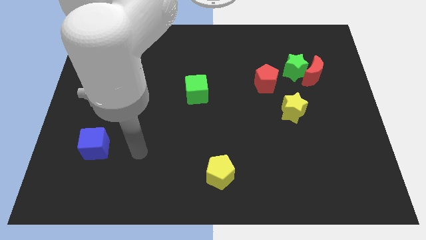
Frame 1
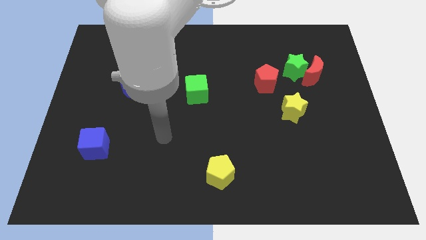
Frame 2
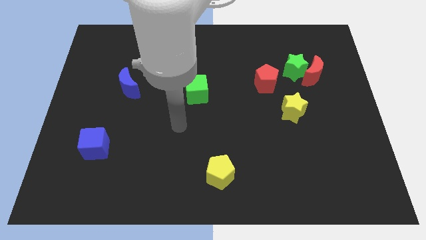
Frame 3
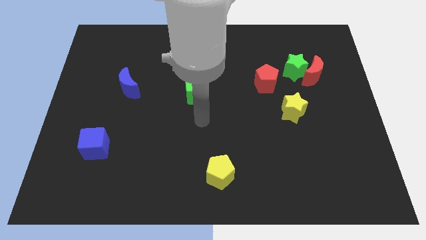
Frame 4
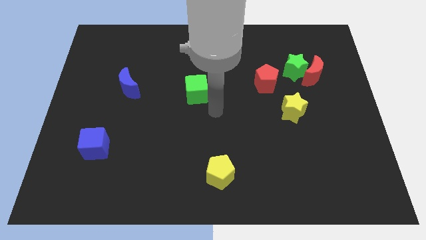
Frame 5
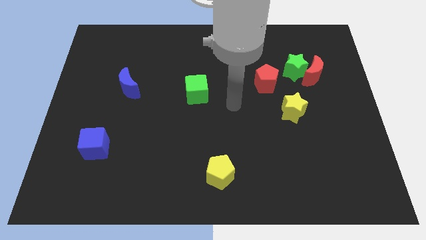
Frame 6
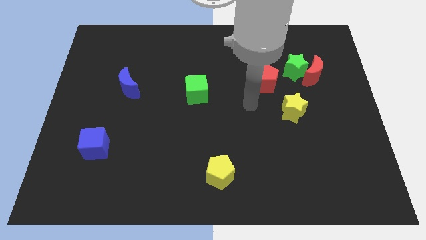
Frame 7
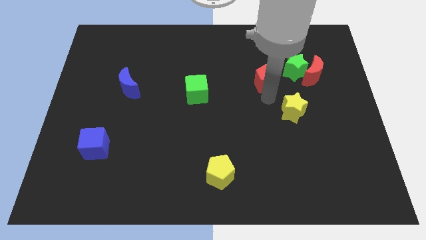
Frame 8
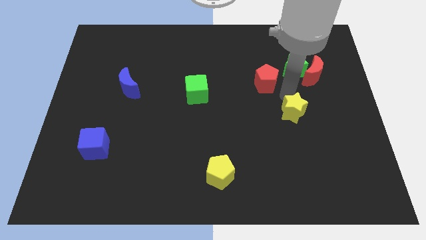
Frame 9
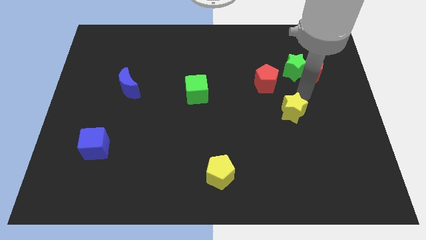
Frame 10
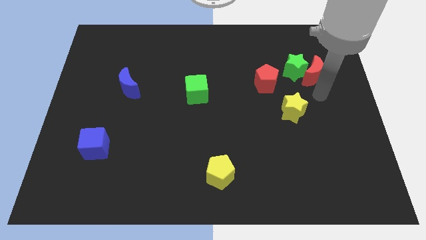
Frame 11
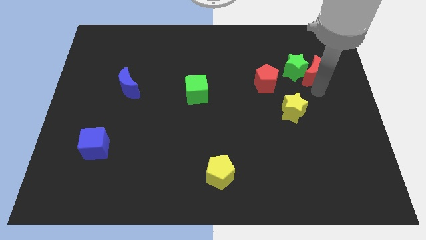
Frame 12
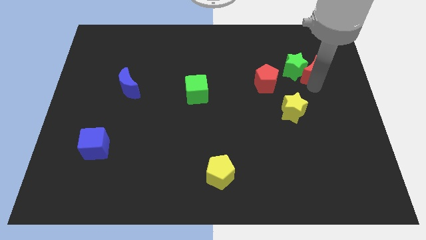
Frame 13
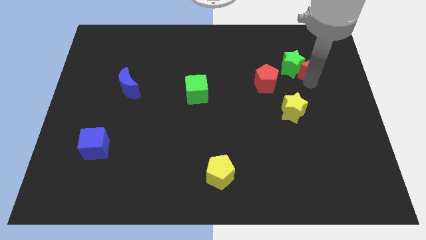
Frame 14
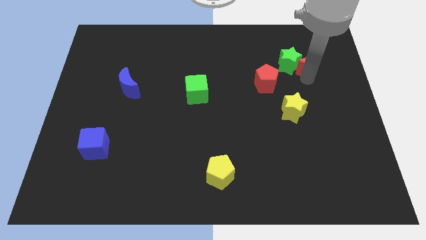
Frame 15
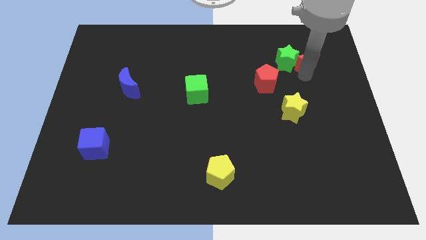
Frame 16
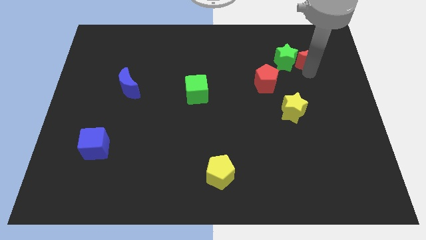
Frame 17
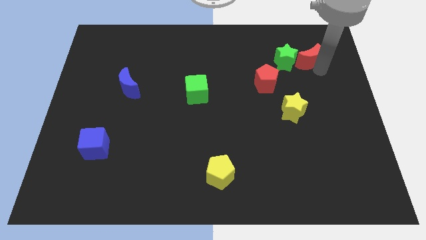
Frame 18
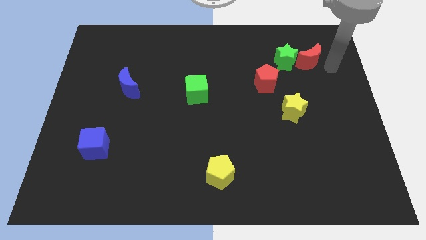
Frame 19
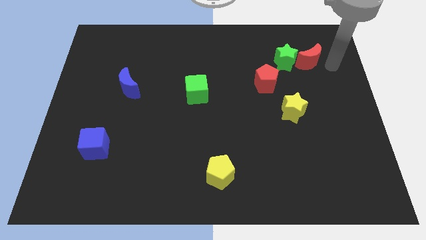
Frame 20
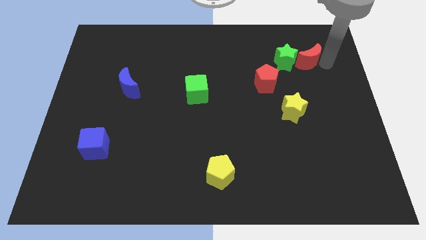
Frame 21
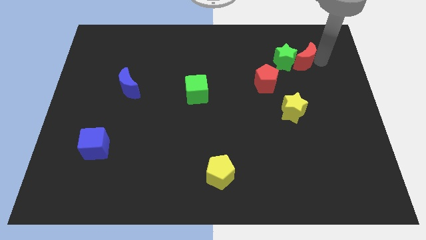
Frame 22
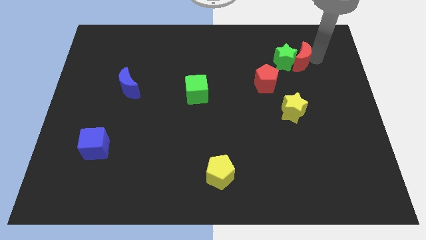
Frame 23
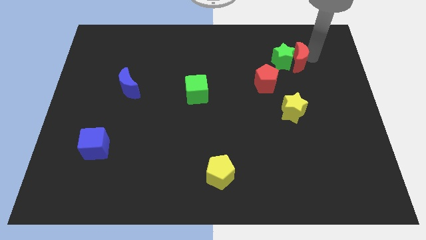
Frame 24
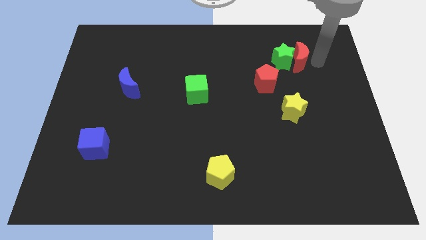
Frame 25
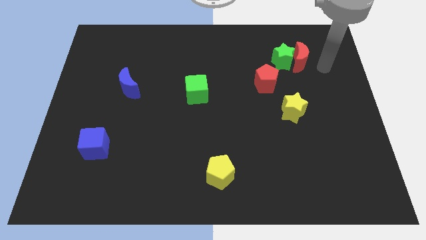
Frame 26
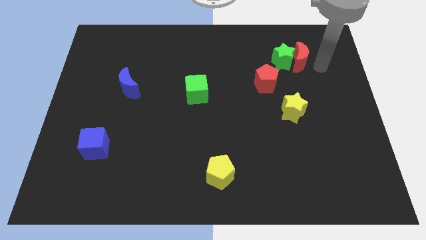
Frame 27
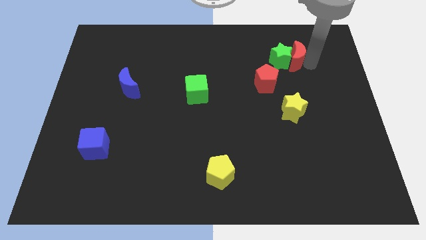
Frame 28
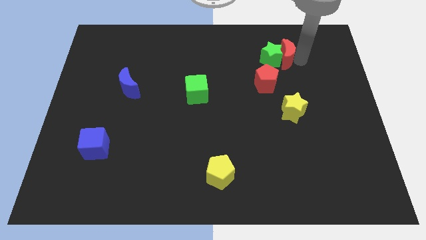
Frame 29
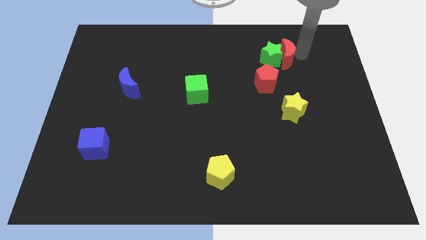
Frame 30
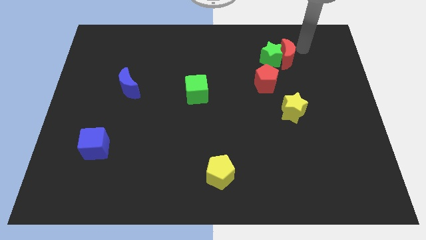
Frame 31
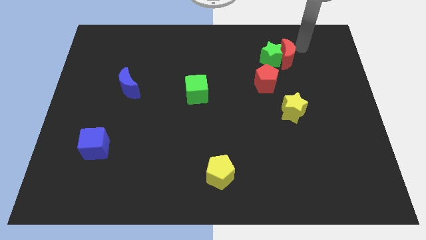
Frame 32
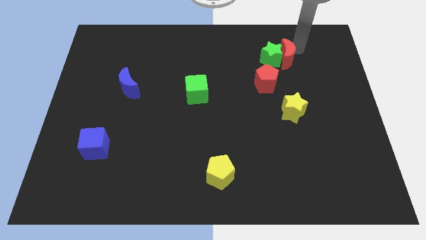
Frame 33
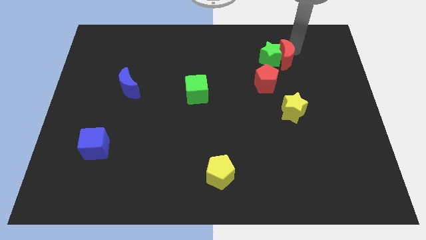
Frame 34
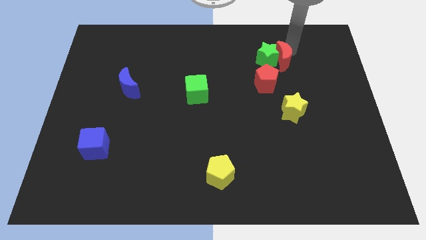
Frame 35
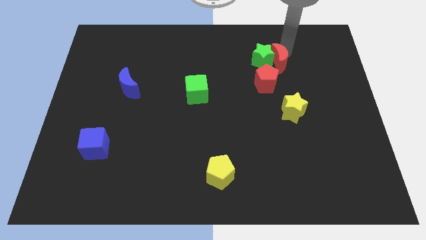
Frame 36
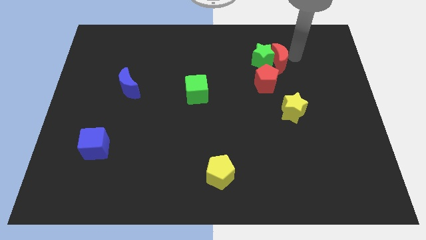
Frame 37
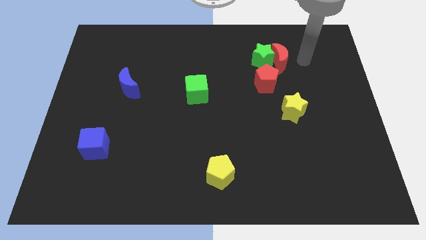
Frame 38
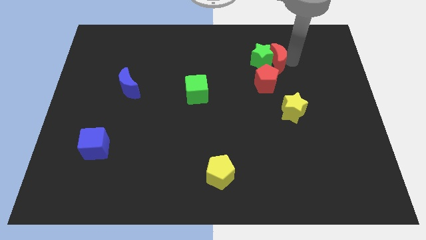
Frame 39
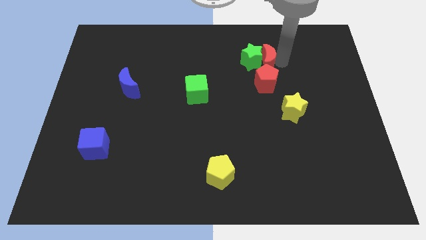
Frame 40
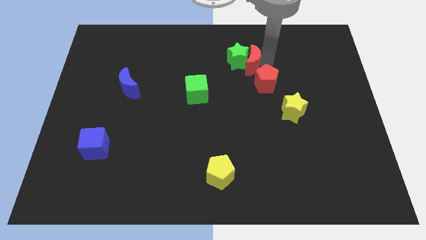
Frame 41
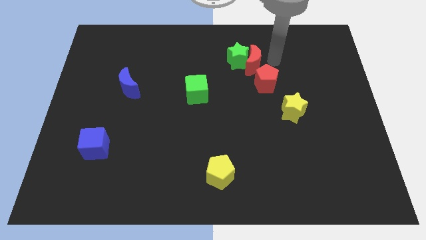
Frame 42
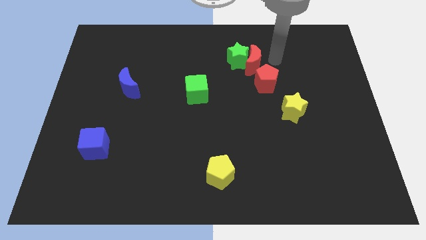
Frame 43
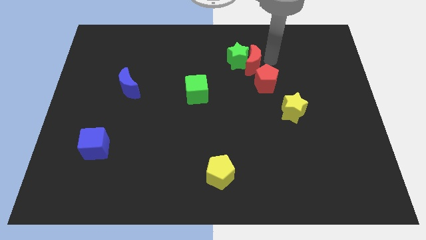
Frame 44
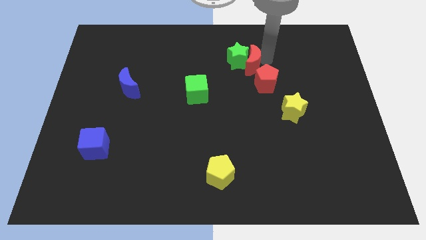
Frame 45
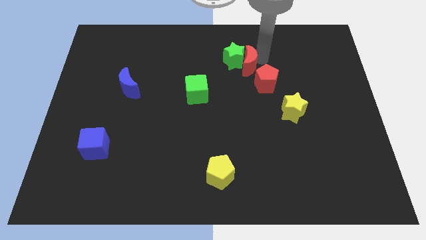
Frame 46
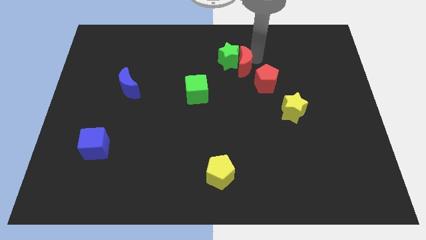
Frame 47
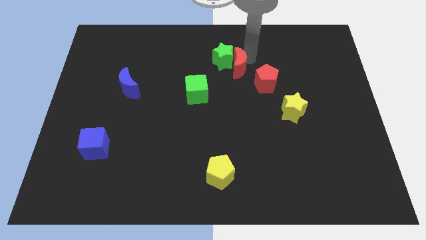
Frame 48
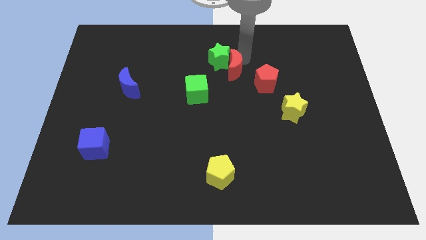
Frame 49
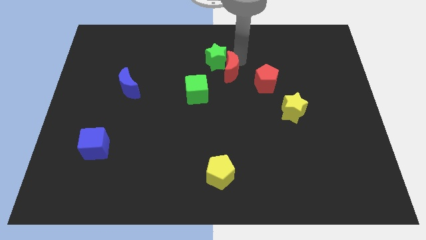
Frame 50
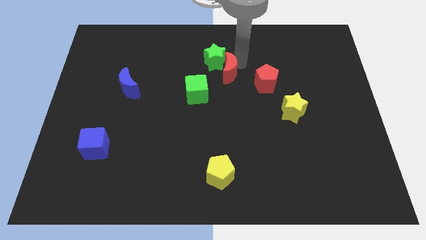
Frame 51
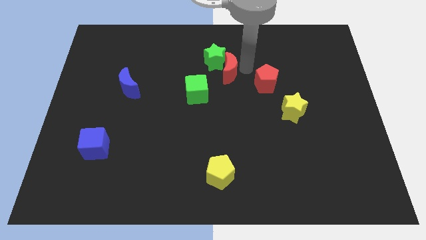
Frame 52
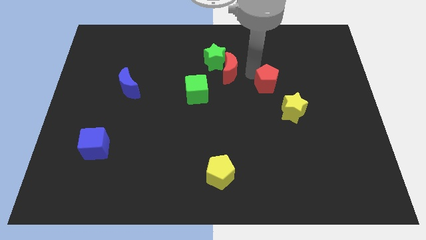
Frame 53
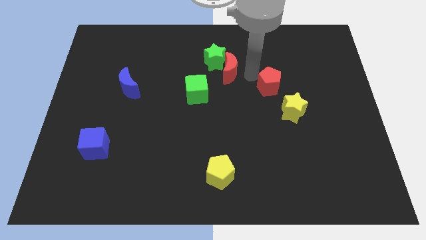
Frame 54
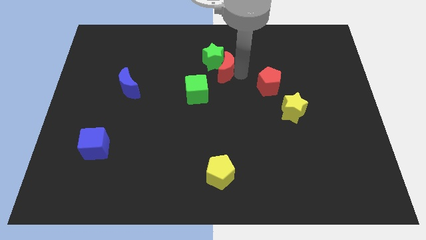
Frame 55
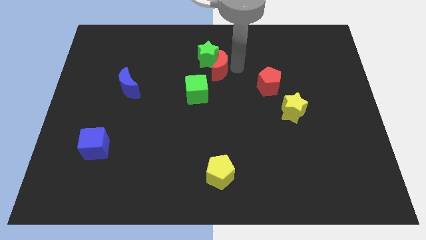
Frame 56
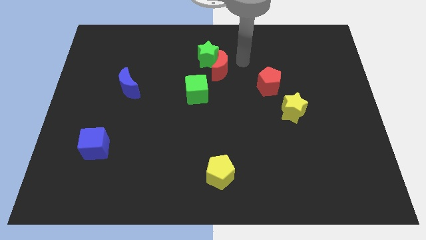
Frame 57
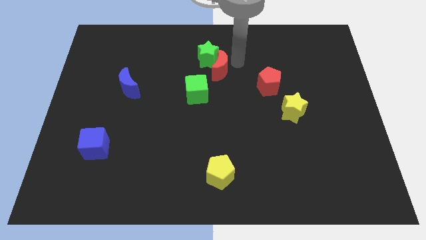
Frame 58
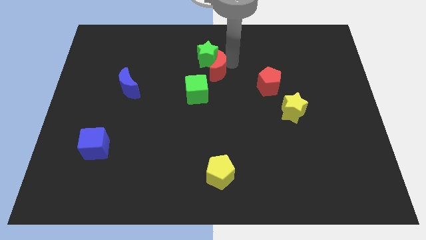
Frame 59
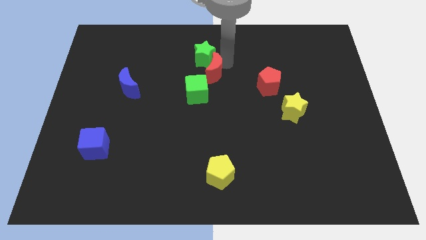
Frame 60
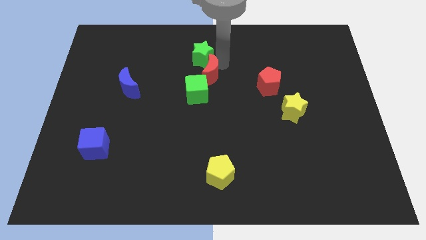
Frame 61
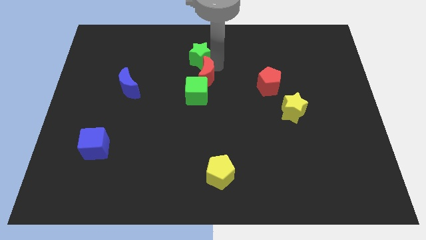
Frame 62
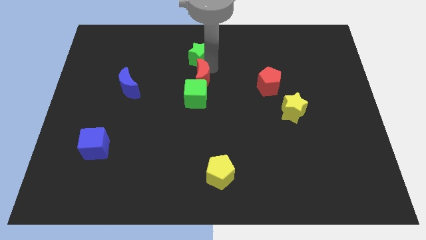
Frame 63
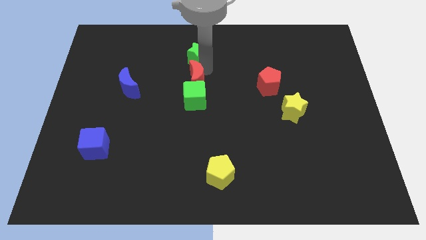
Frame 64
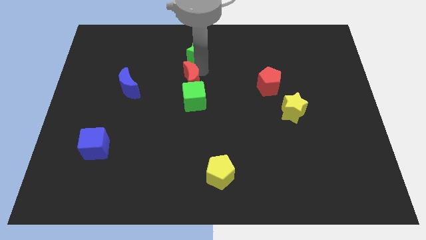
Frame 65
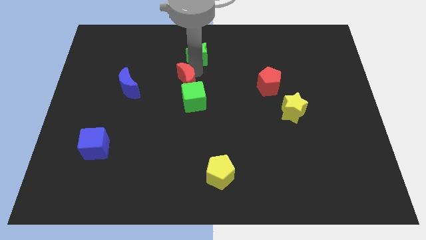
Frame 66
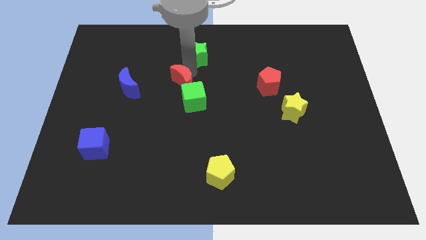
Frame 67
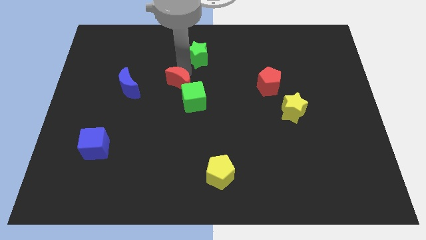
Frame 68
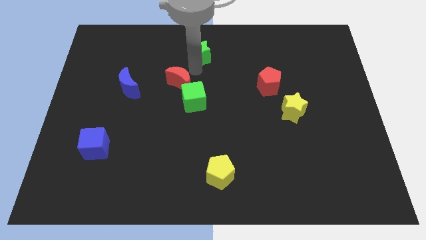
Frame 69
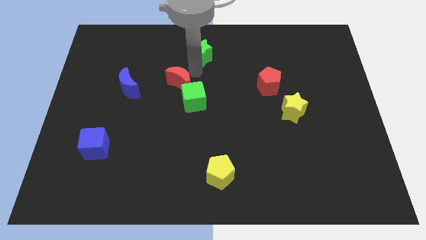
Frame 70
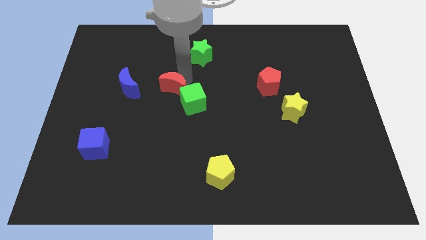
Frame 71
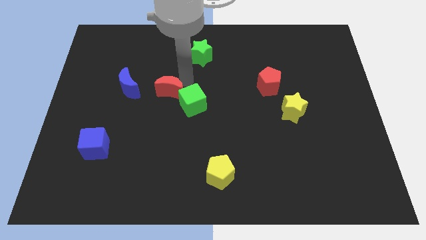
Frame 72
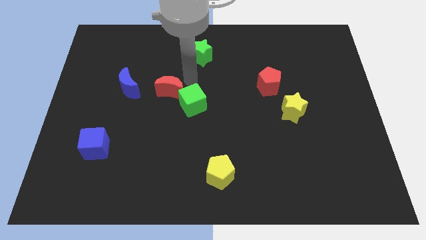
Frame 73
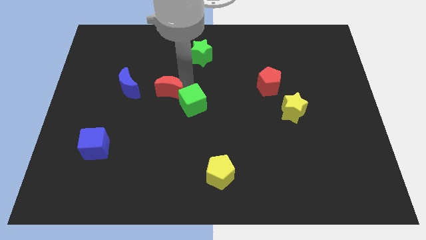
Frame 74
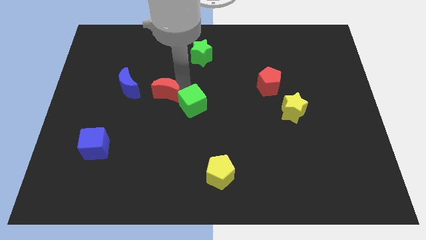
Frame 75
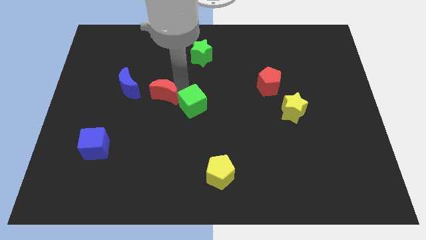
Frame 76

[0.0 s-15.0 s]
put the red moon to the bottom right side of the blue moon
